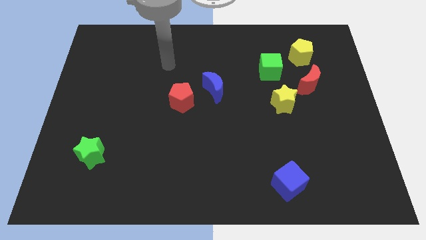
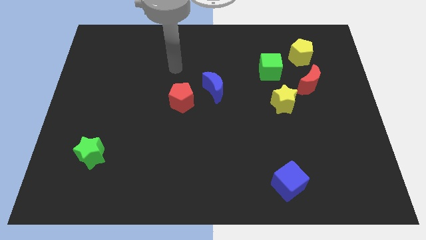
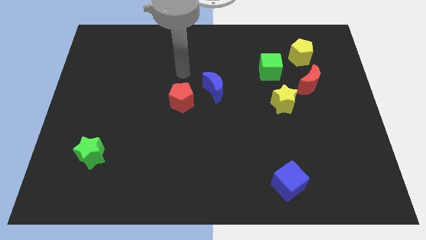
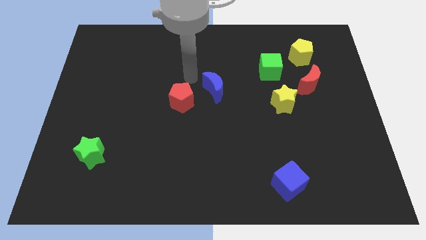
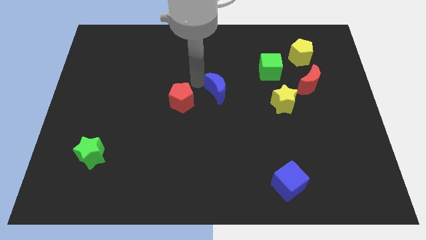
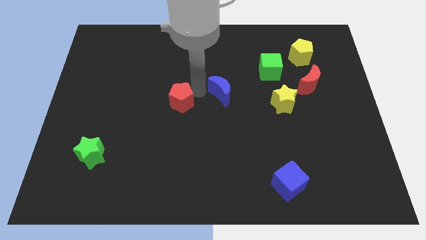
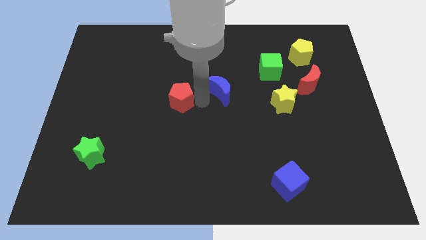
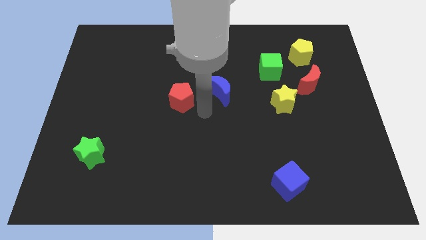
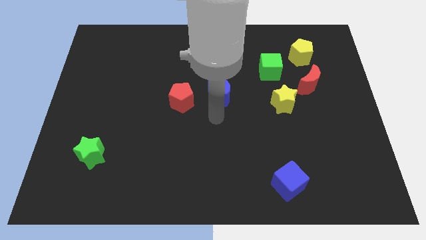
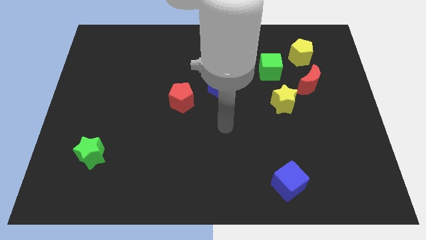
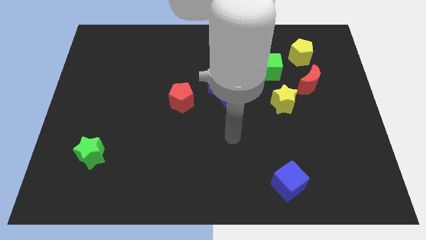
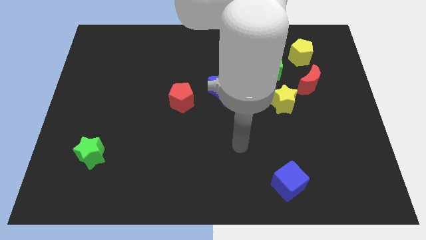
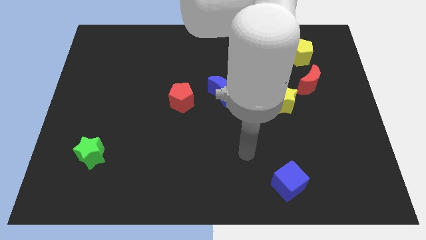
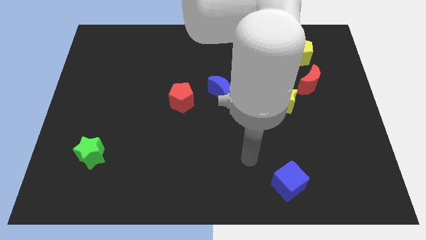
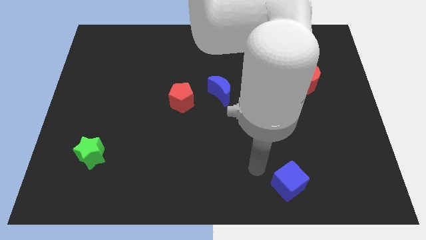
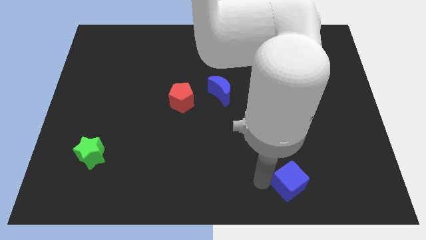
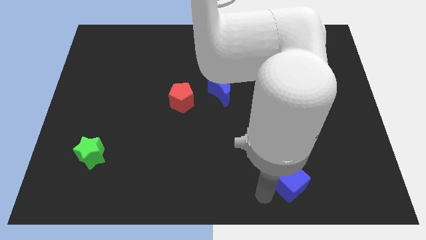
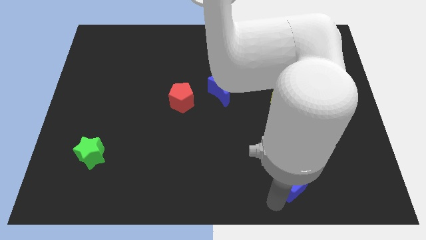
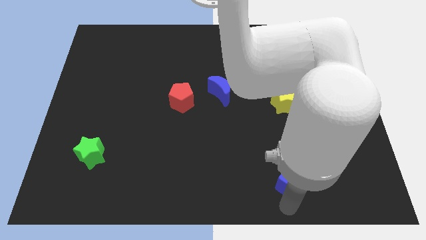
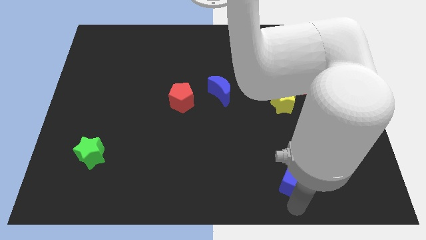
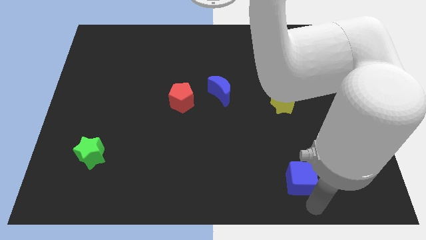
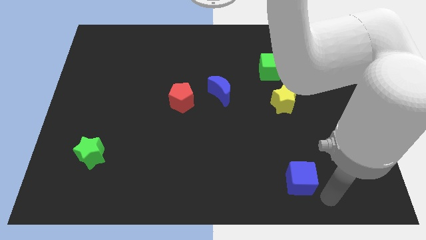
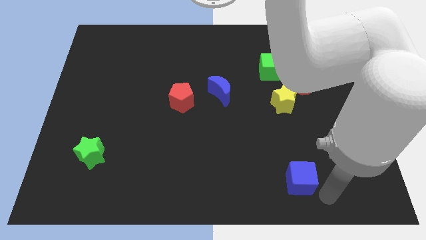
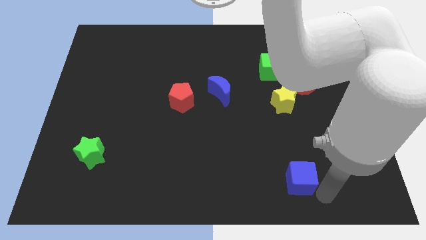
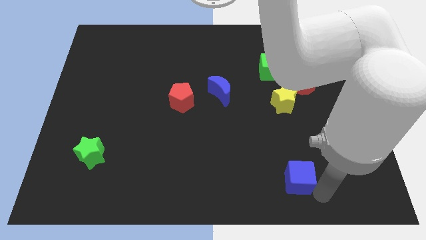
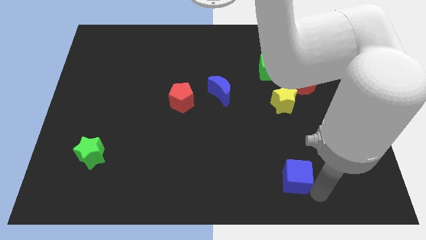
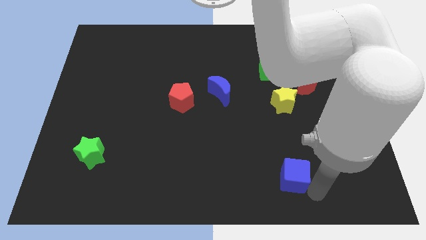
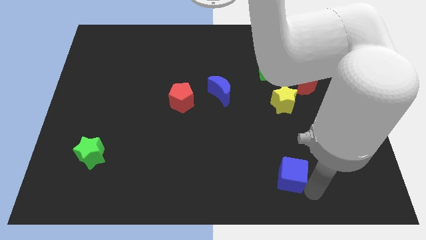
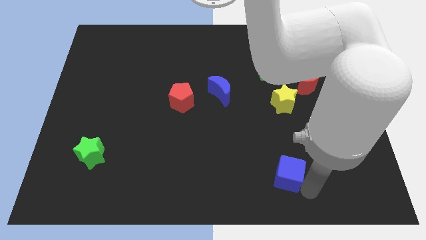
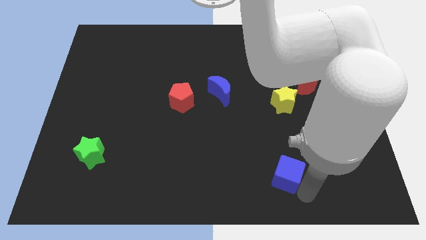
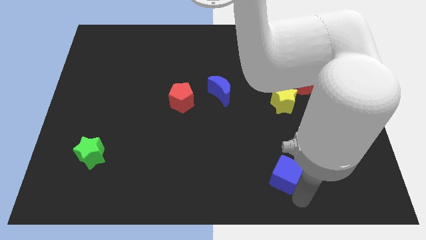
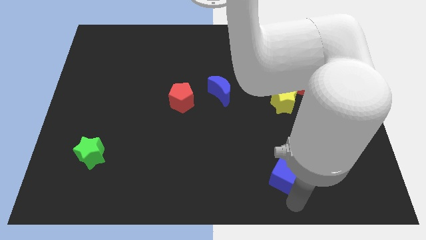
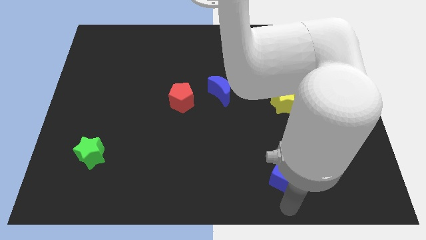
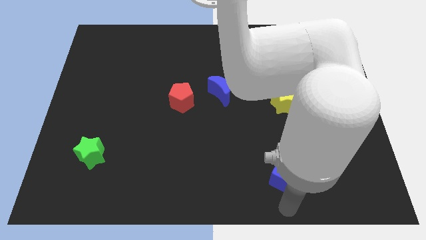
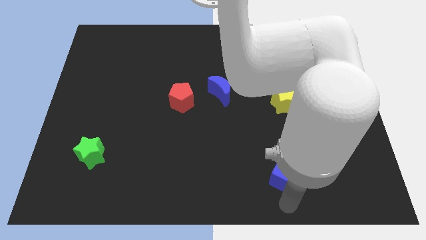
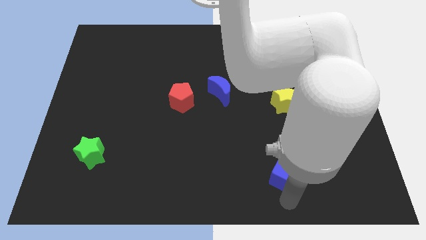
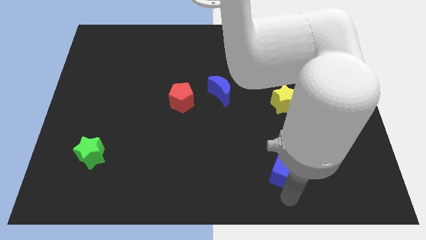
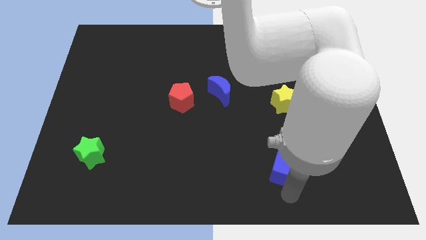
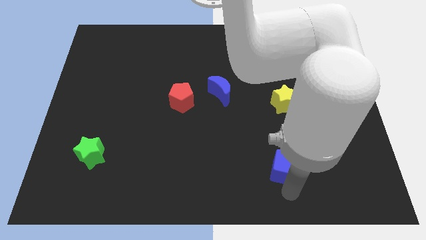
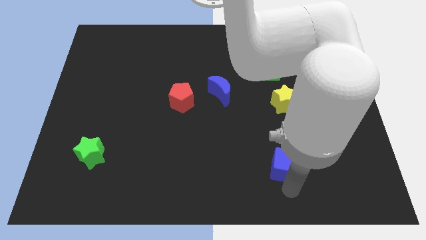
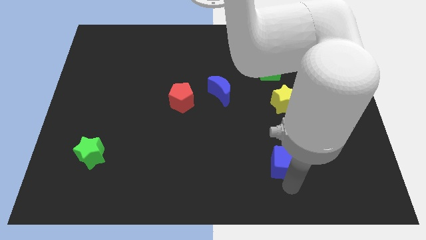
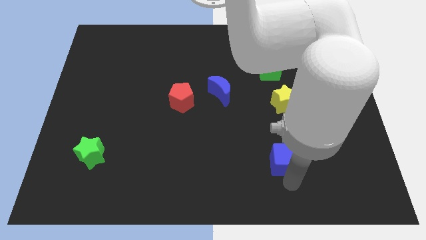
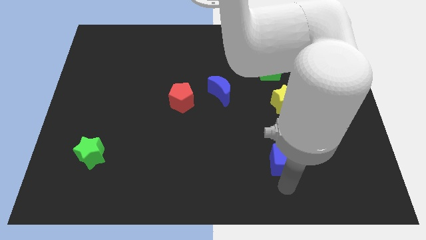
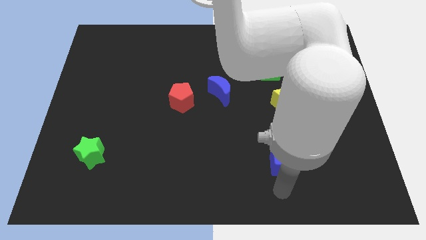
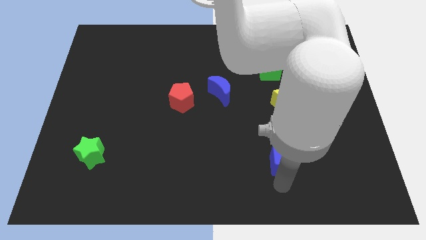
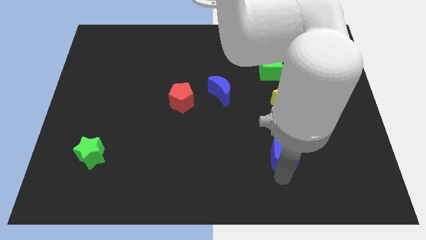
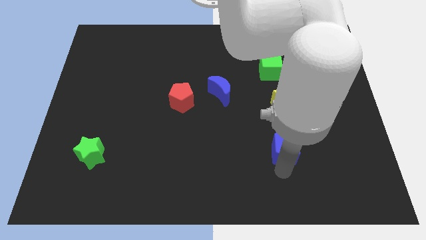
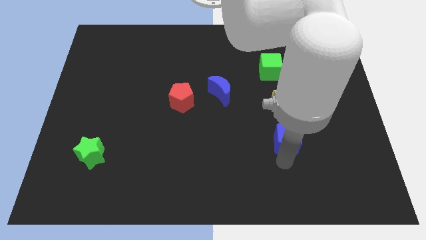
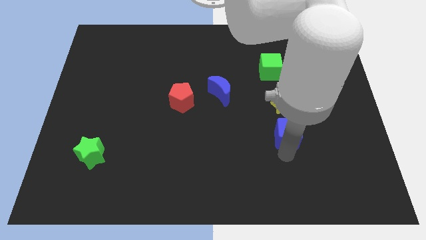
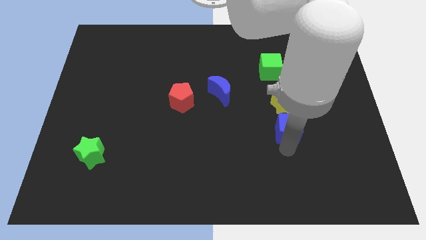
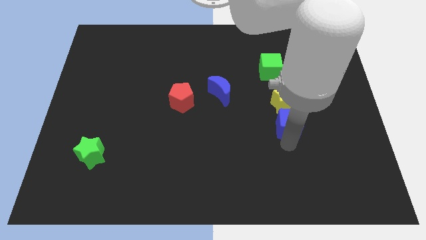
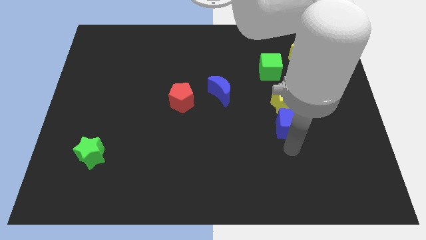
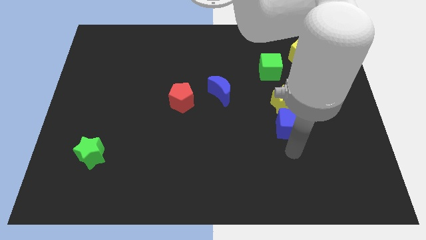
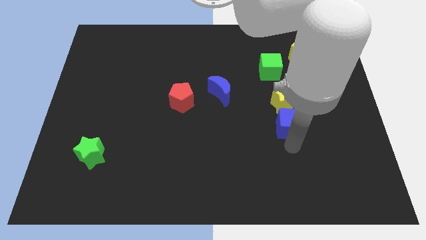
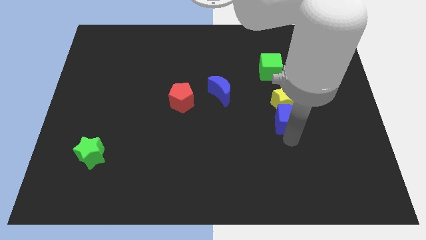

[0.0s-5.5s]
slide the blue cube to the yellow star

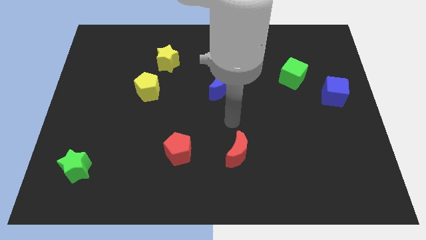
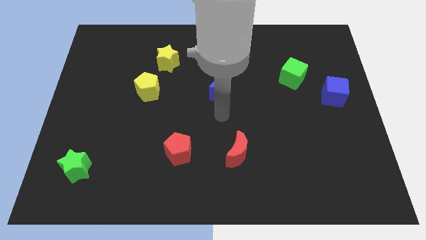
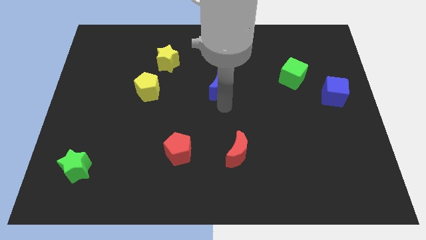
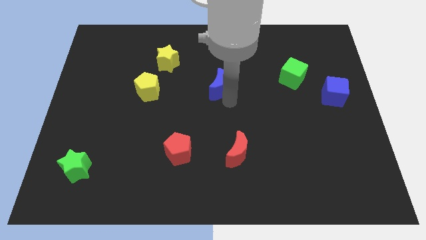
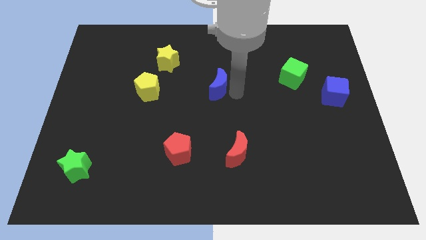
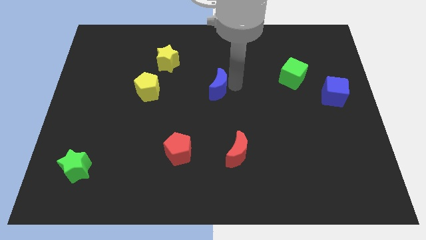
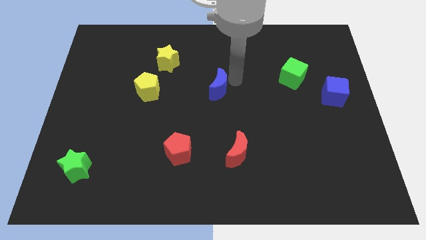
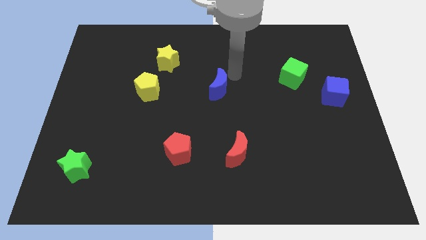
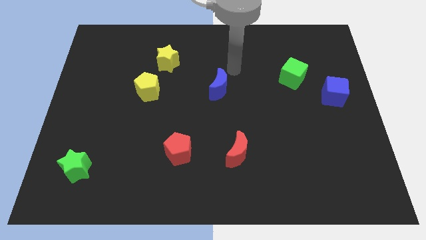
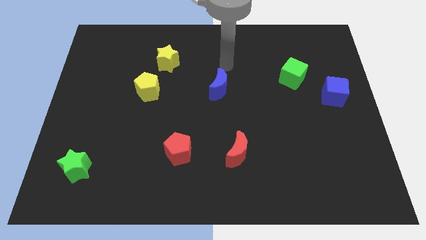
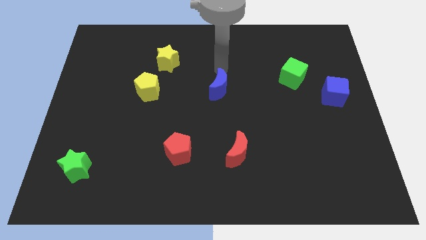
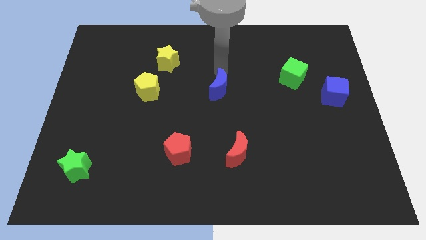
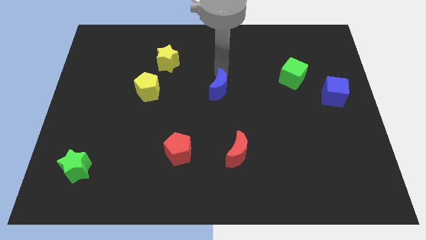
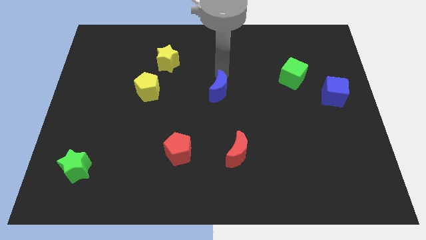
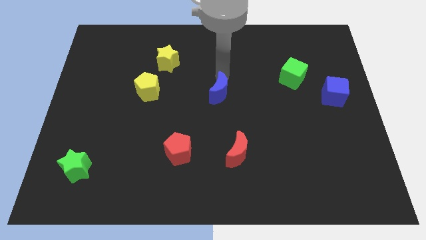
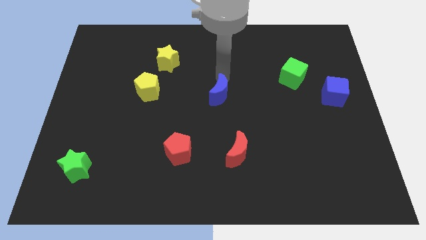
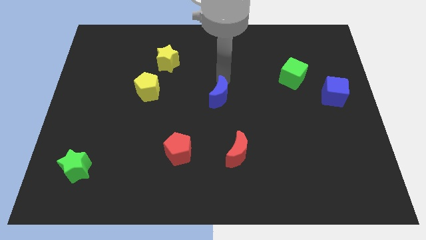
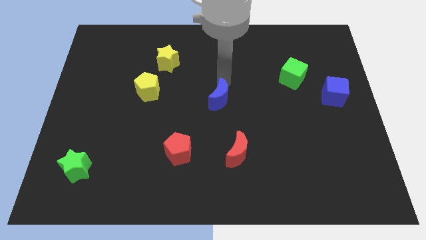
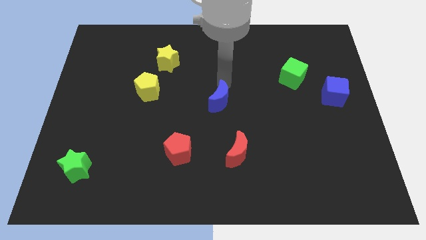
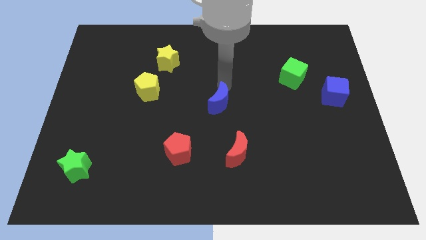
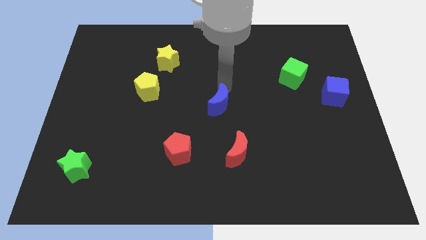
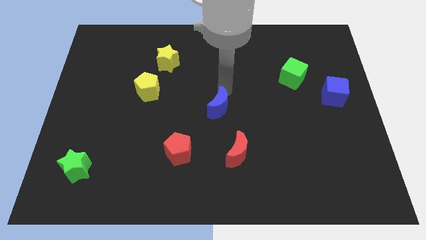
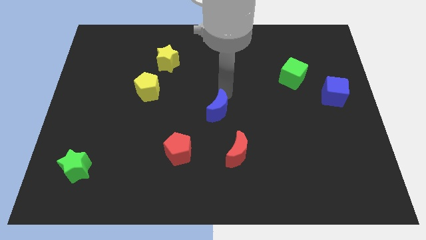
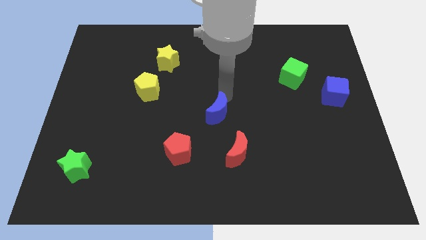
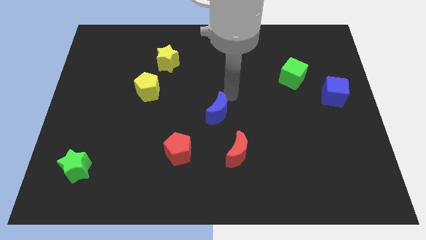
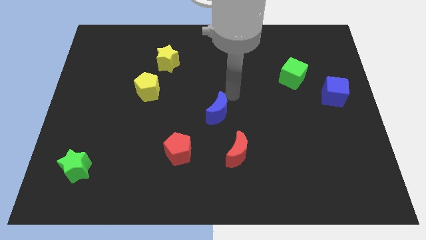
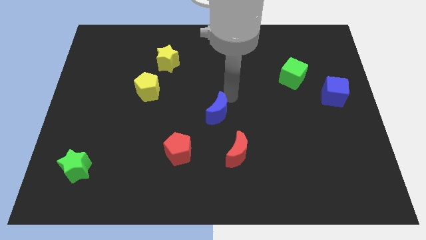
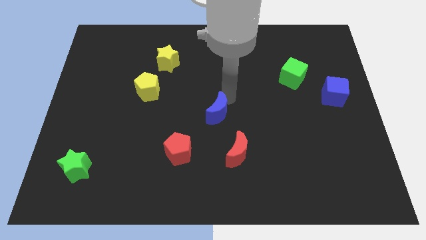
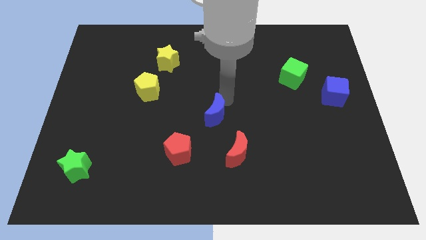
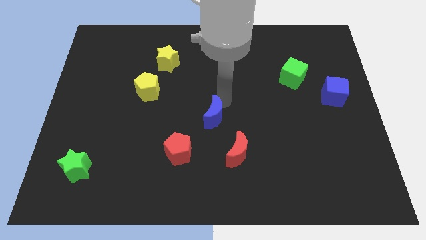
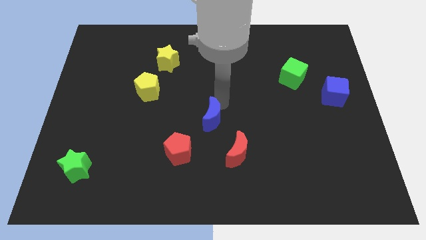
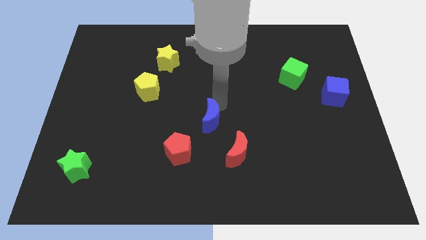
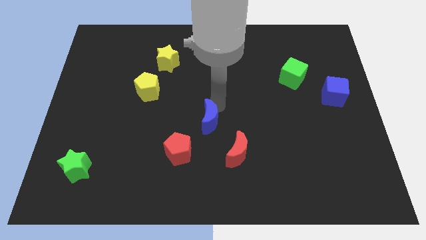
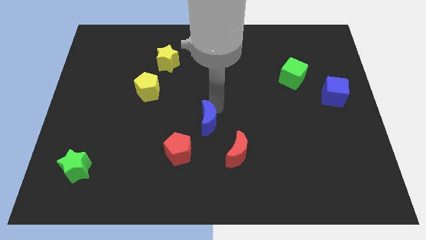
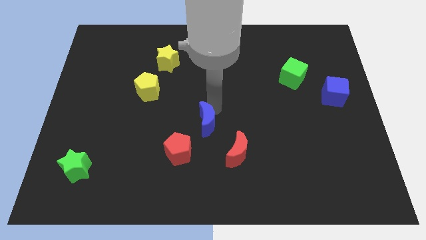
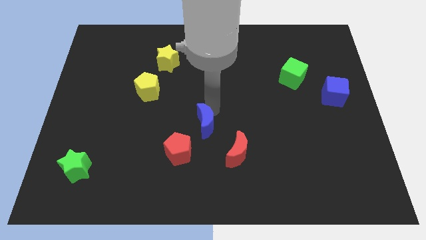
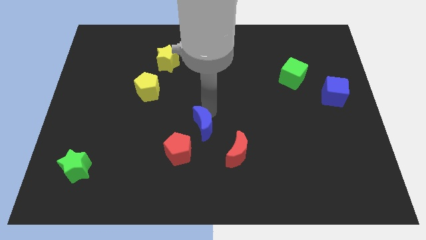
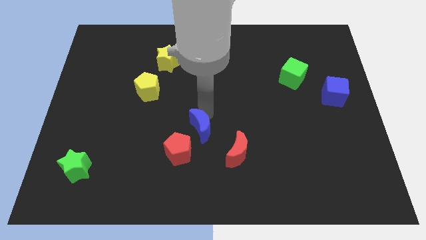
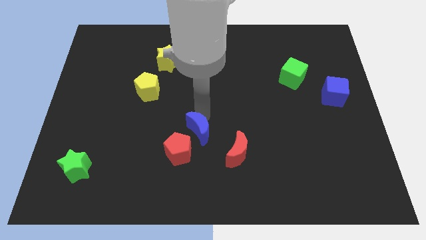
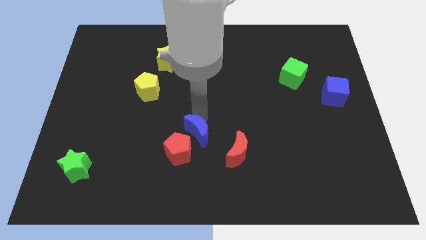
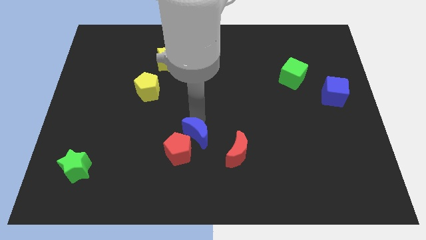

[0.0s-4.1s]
push the blue moon to the red pentagon
